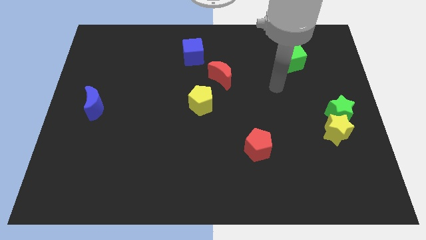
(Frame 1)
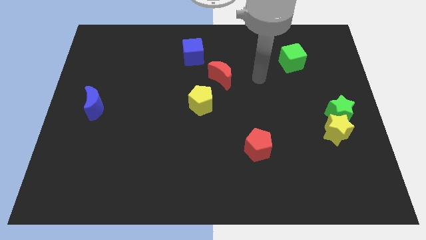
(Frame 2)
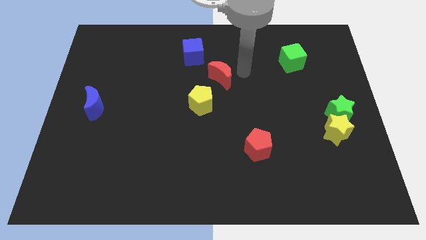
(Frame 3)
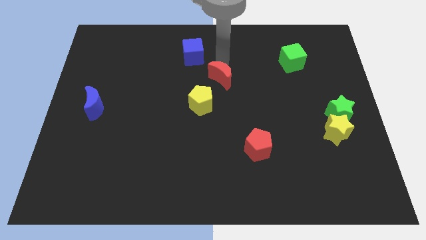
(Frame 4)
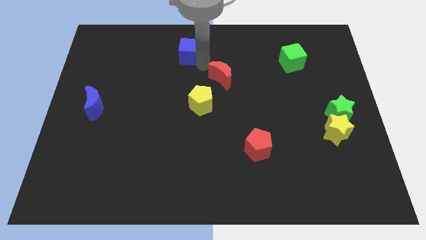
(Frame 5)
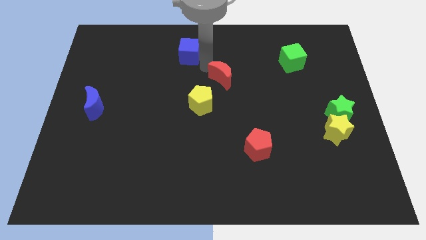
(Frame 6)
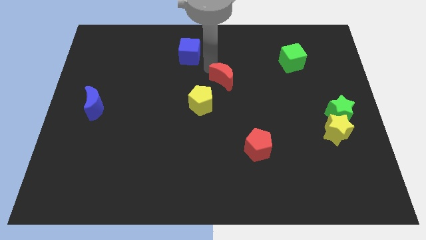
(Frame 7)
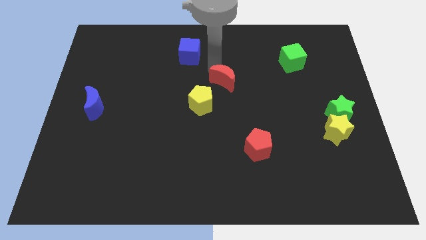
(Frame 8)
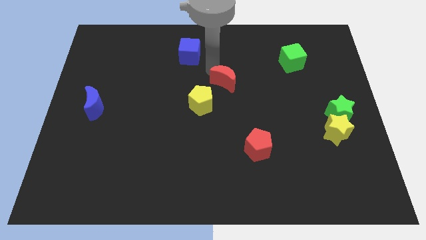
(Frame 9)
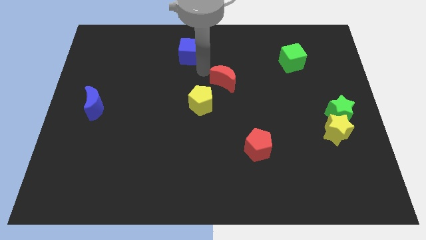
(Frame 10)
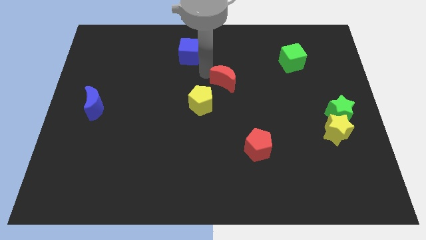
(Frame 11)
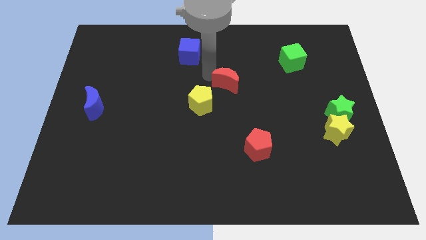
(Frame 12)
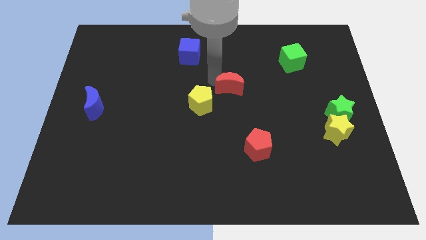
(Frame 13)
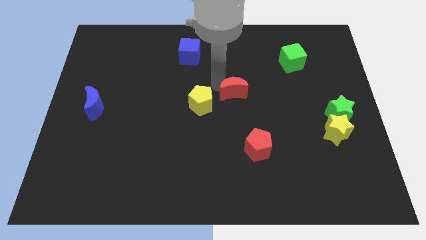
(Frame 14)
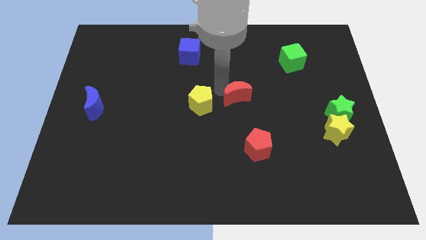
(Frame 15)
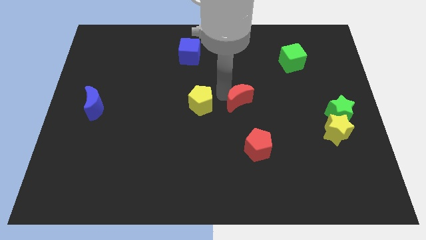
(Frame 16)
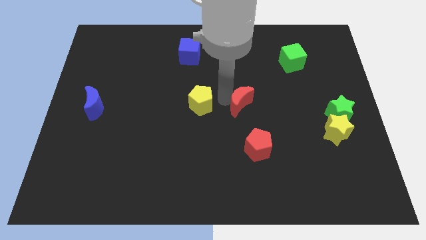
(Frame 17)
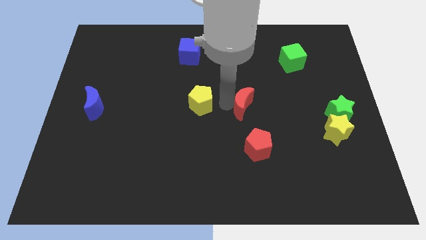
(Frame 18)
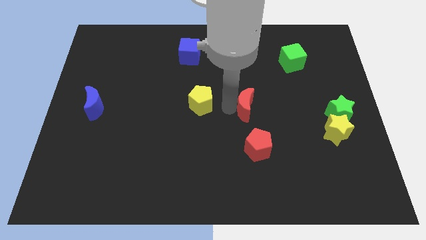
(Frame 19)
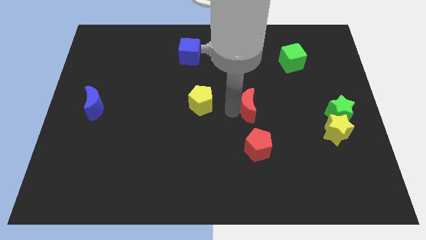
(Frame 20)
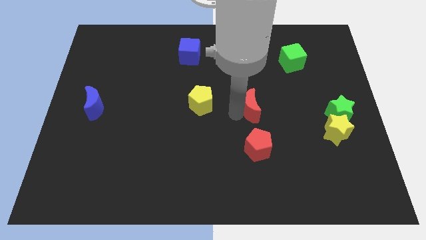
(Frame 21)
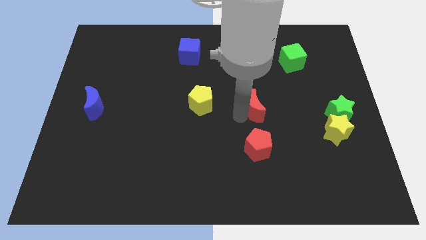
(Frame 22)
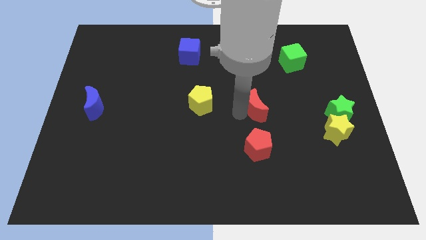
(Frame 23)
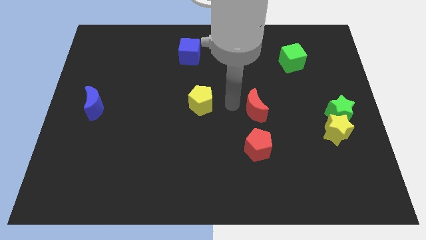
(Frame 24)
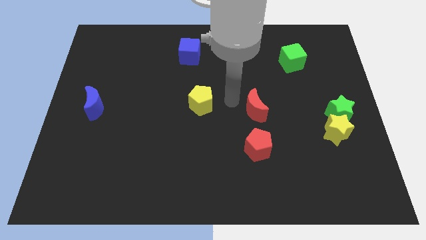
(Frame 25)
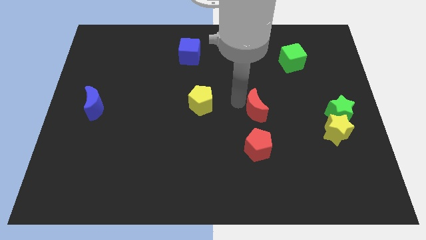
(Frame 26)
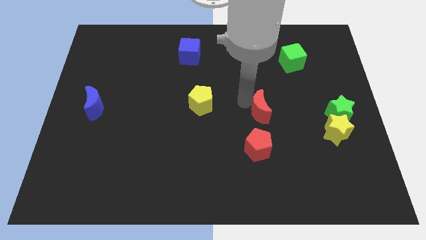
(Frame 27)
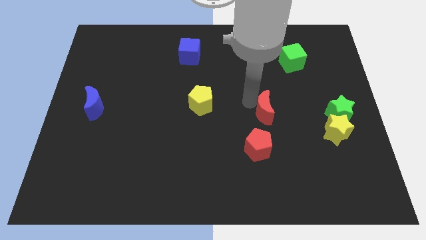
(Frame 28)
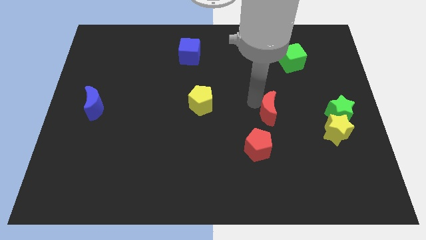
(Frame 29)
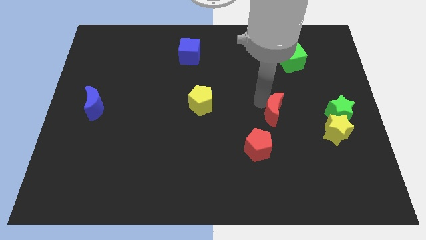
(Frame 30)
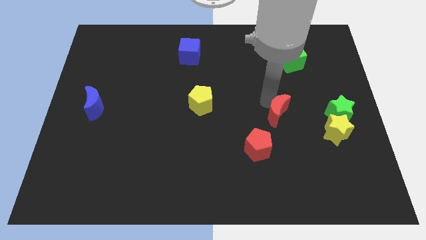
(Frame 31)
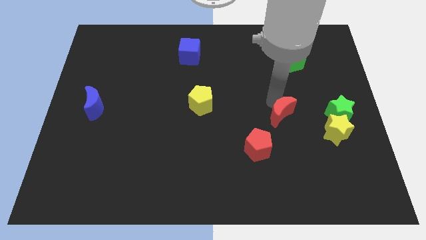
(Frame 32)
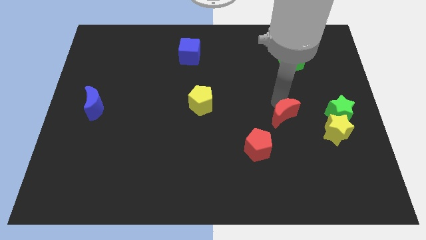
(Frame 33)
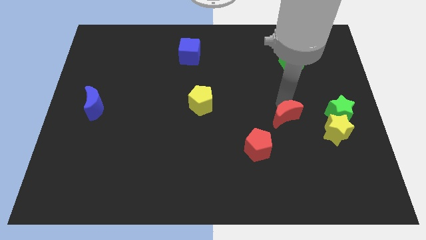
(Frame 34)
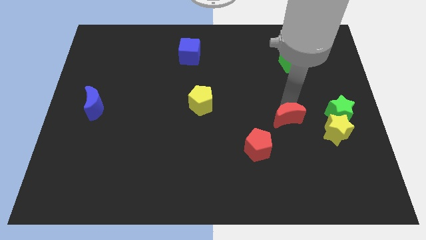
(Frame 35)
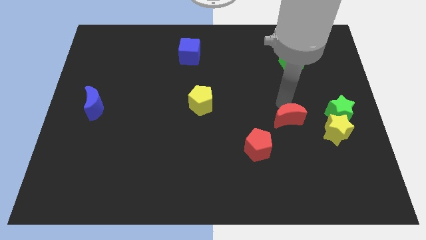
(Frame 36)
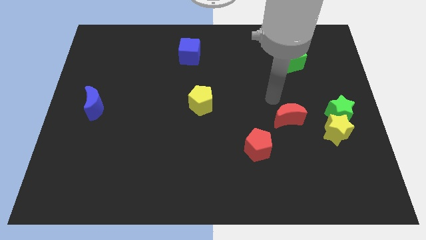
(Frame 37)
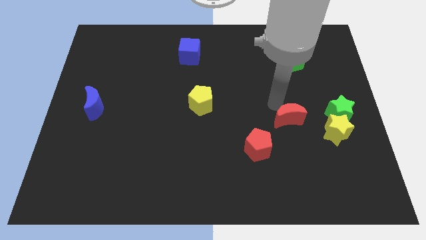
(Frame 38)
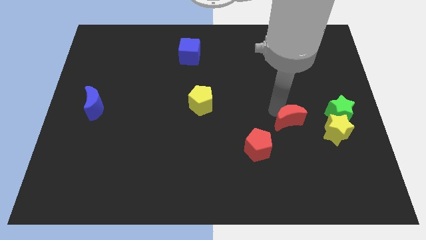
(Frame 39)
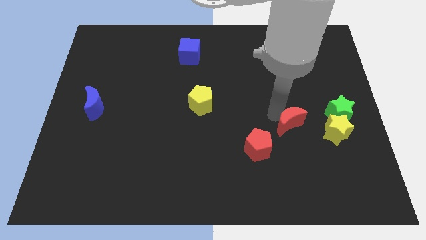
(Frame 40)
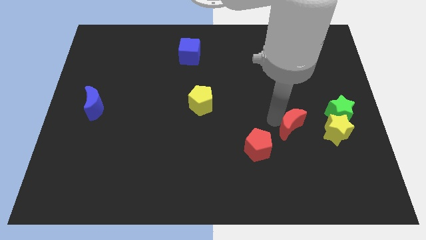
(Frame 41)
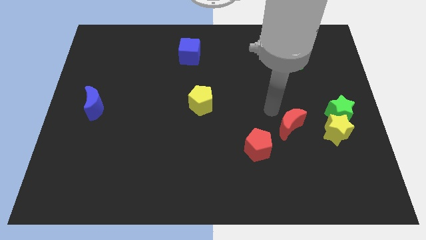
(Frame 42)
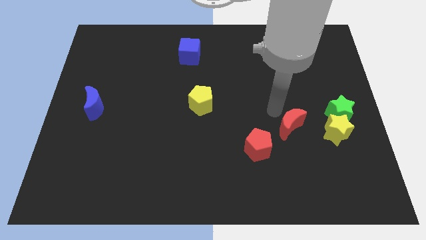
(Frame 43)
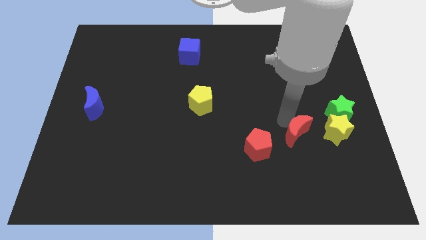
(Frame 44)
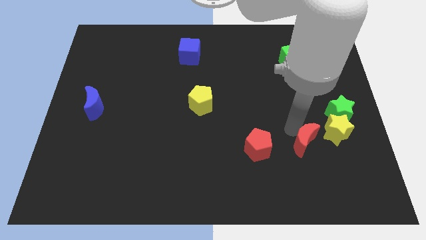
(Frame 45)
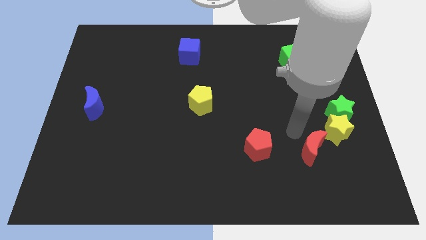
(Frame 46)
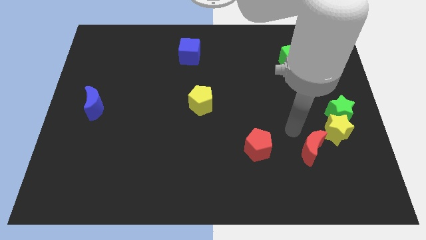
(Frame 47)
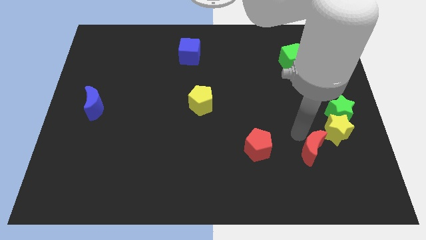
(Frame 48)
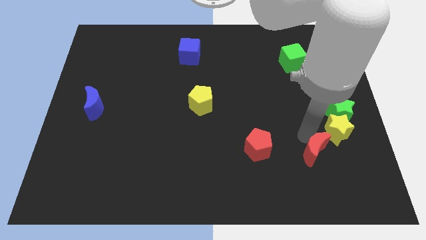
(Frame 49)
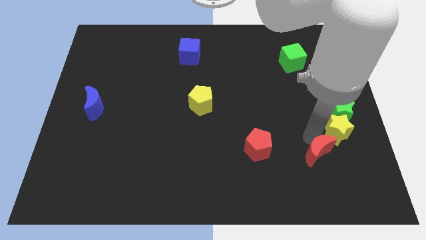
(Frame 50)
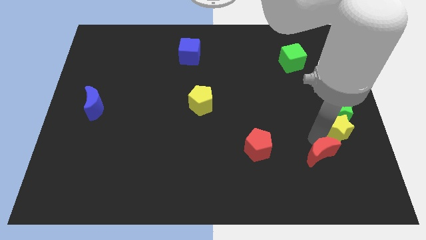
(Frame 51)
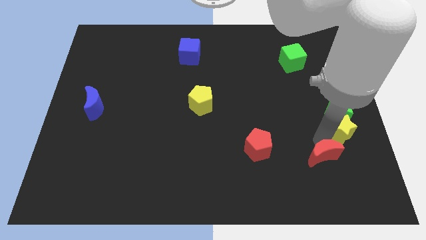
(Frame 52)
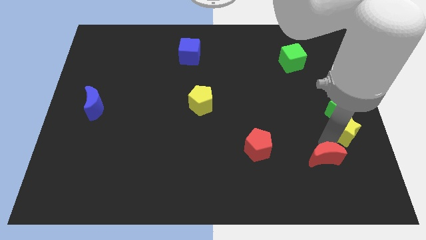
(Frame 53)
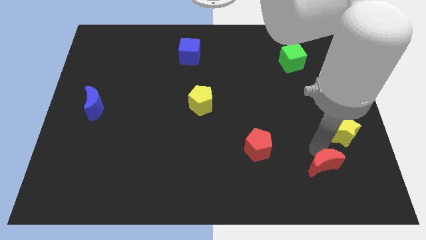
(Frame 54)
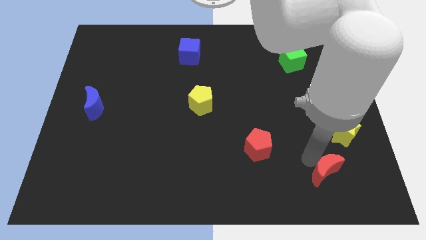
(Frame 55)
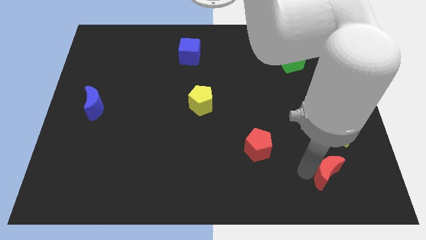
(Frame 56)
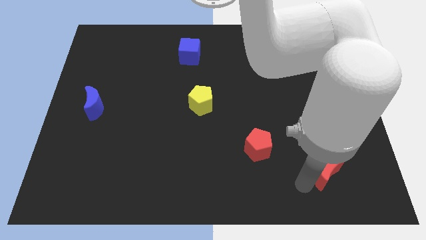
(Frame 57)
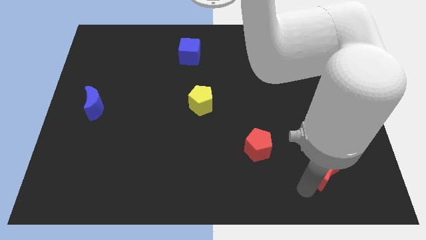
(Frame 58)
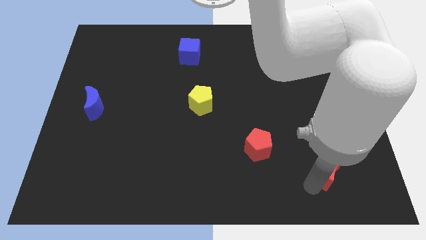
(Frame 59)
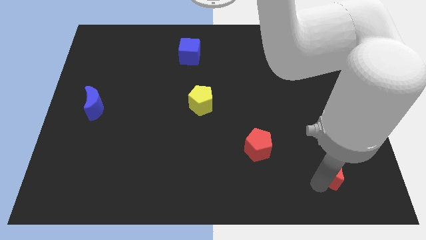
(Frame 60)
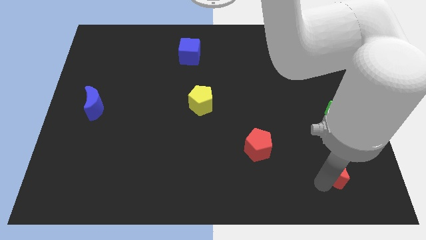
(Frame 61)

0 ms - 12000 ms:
slide the red moon below the green star

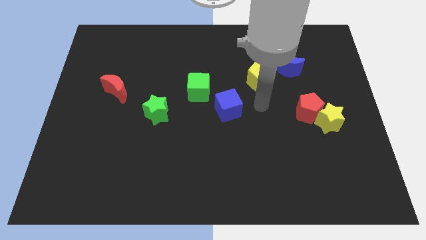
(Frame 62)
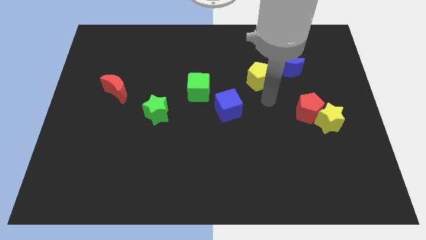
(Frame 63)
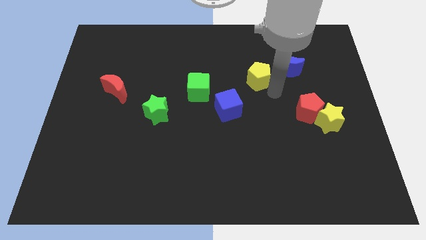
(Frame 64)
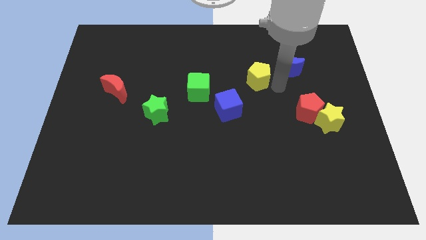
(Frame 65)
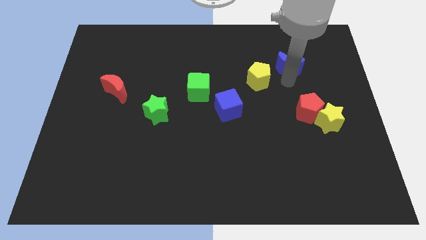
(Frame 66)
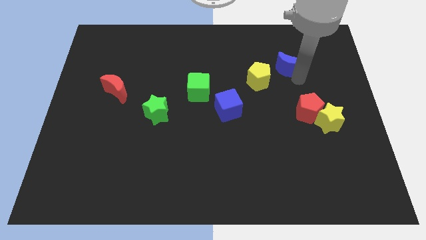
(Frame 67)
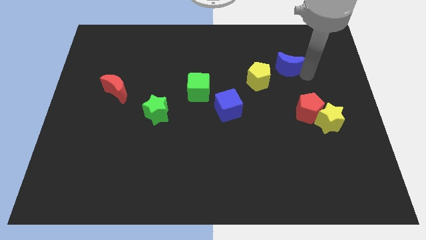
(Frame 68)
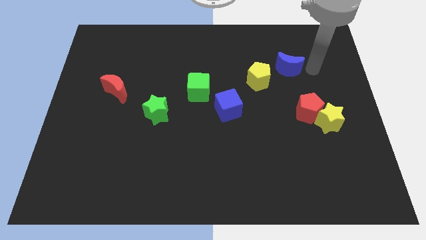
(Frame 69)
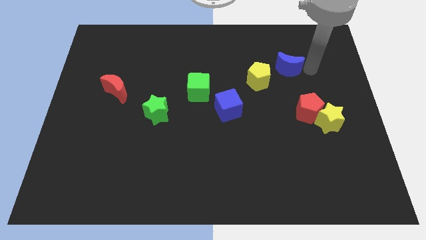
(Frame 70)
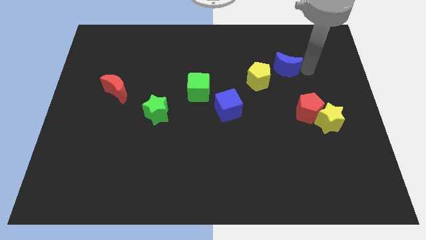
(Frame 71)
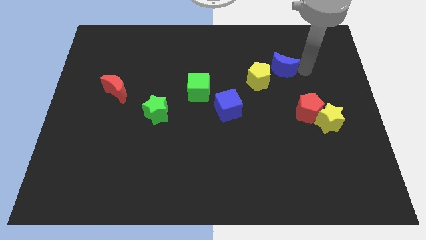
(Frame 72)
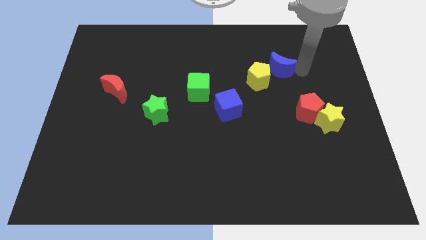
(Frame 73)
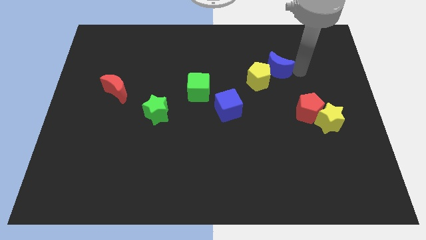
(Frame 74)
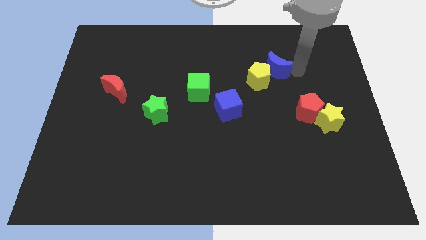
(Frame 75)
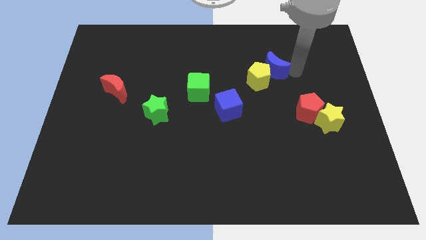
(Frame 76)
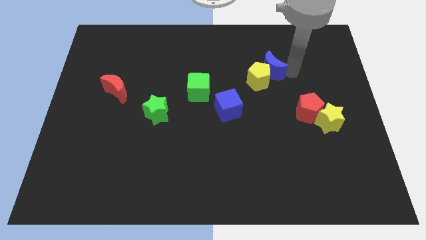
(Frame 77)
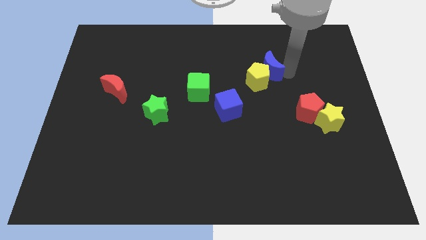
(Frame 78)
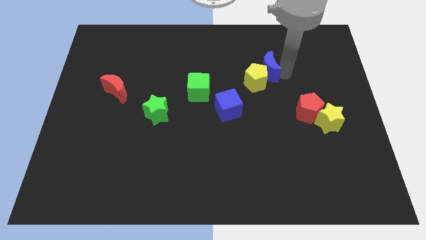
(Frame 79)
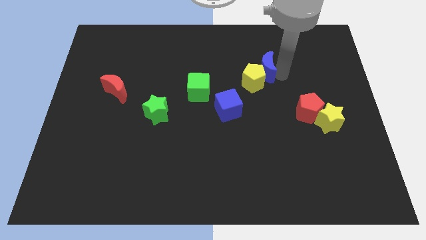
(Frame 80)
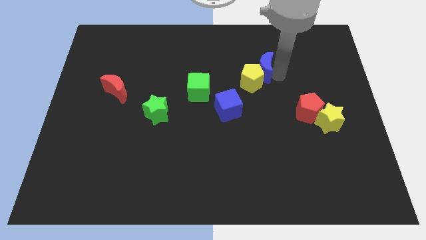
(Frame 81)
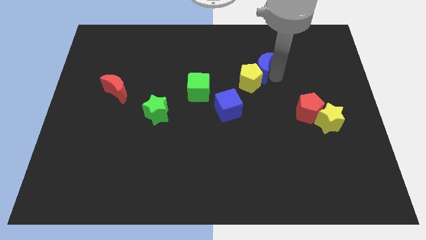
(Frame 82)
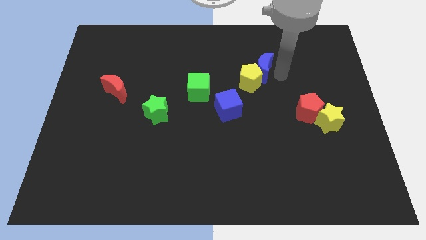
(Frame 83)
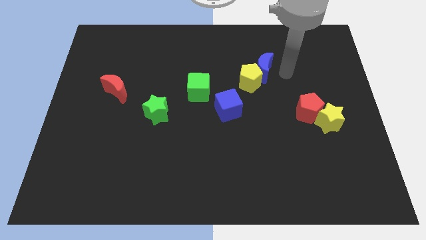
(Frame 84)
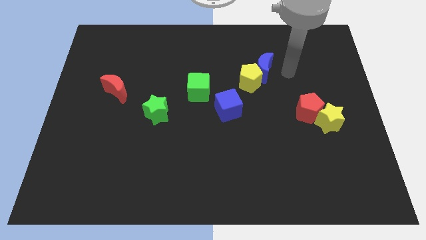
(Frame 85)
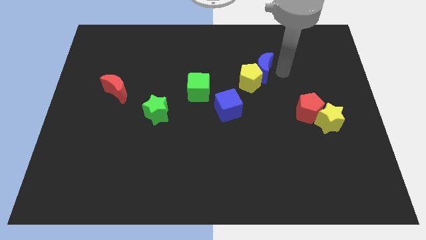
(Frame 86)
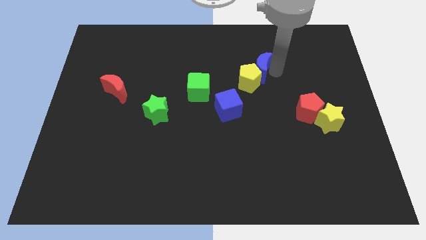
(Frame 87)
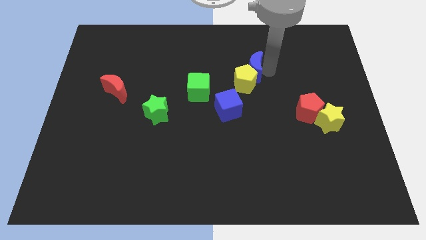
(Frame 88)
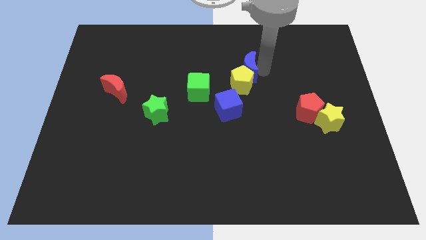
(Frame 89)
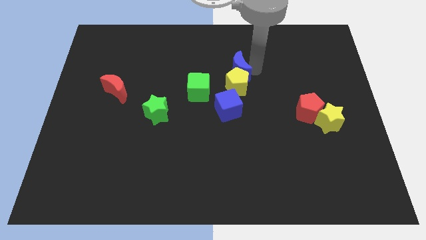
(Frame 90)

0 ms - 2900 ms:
move the blue moon to the top right of the green cube
